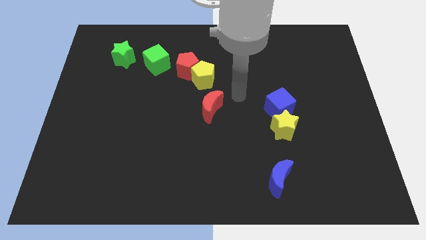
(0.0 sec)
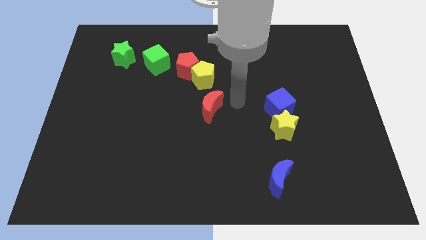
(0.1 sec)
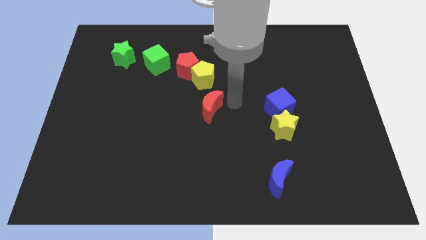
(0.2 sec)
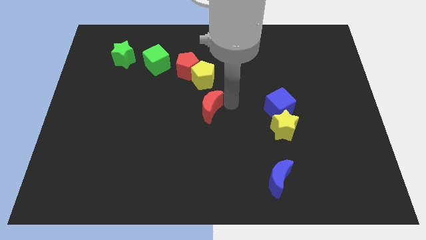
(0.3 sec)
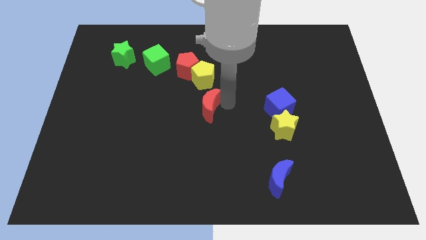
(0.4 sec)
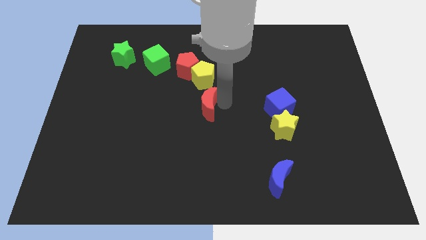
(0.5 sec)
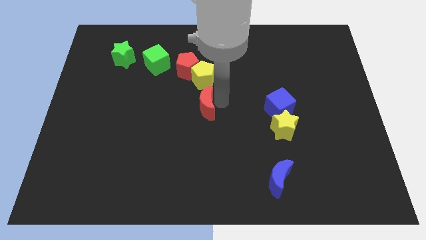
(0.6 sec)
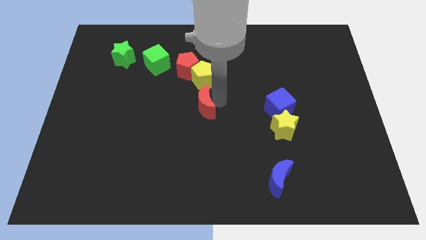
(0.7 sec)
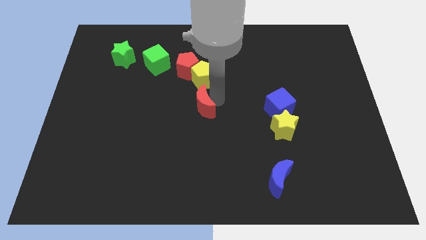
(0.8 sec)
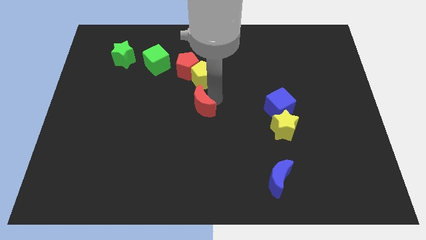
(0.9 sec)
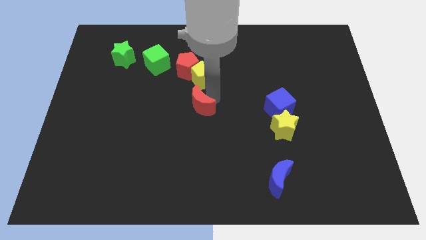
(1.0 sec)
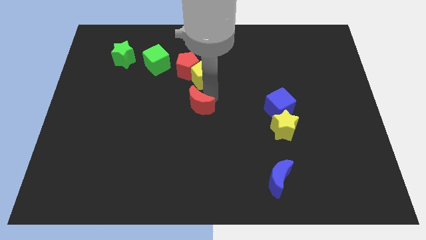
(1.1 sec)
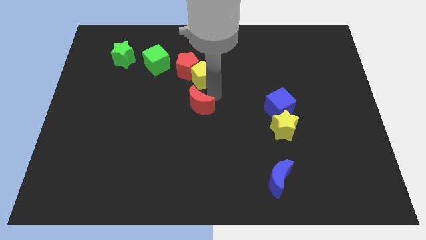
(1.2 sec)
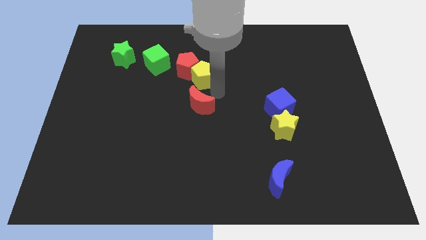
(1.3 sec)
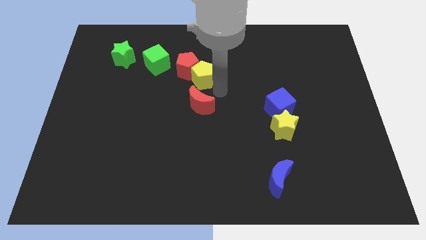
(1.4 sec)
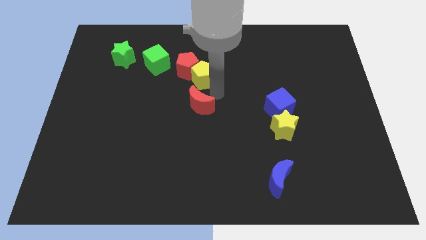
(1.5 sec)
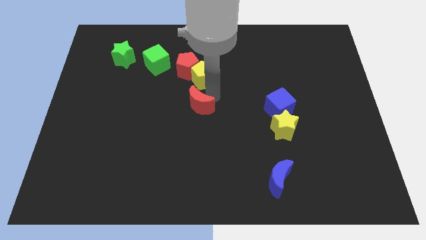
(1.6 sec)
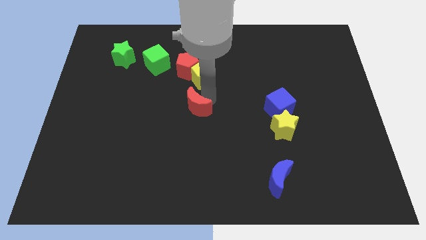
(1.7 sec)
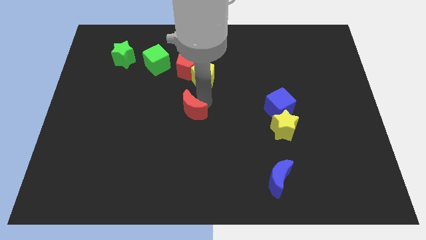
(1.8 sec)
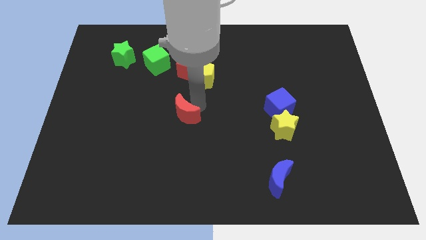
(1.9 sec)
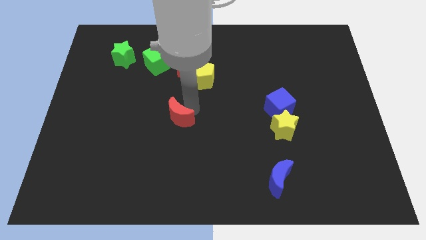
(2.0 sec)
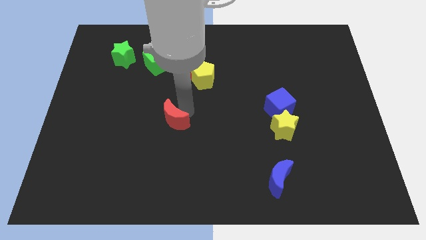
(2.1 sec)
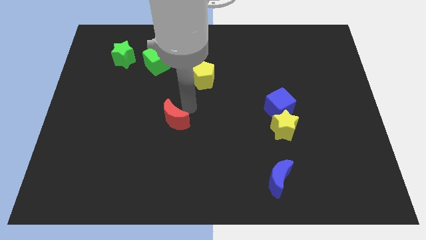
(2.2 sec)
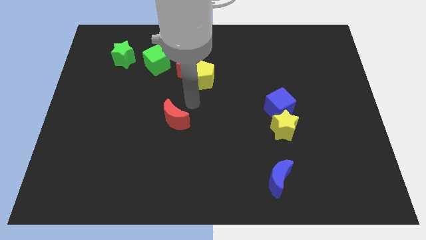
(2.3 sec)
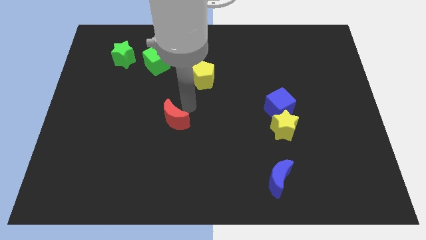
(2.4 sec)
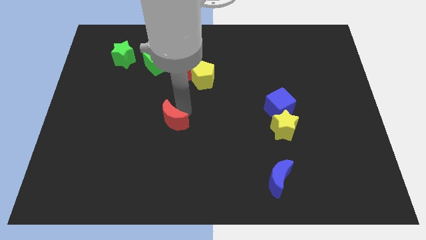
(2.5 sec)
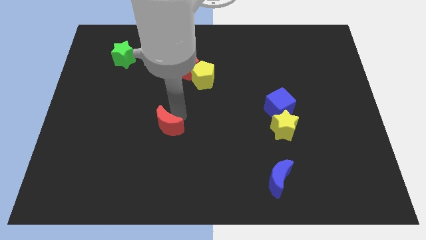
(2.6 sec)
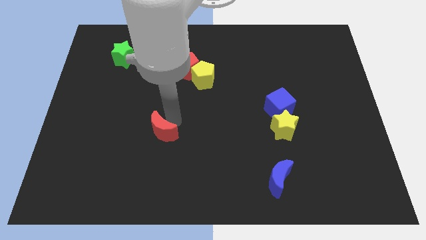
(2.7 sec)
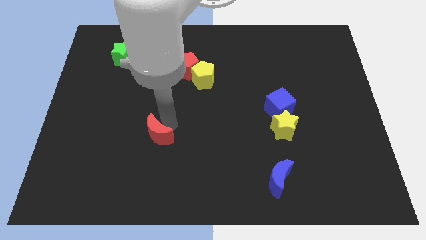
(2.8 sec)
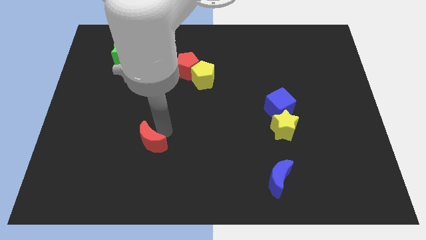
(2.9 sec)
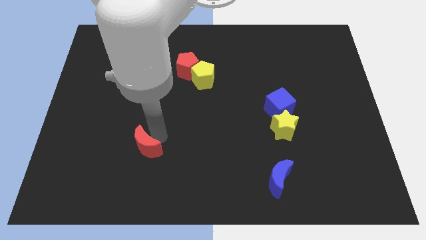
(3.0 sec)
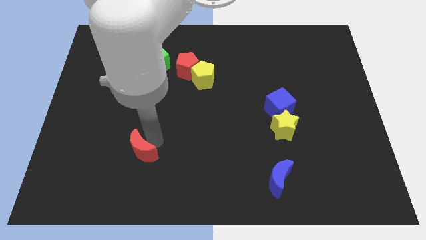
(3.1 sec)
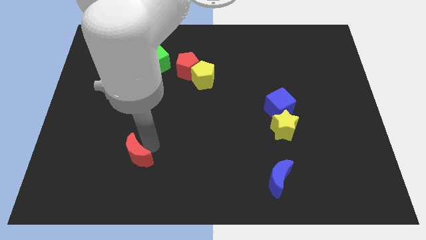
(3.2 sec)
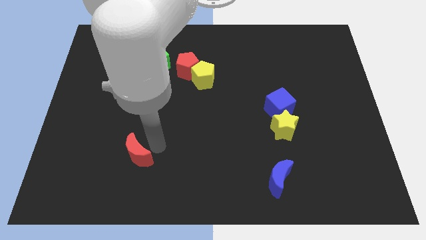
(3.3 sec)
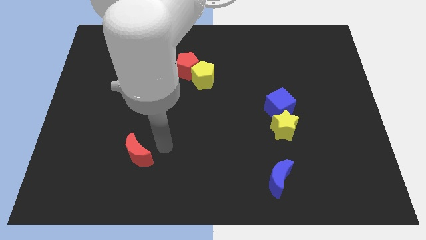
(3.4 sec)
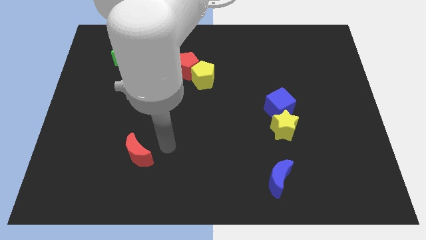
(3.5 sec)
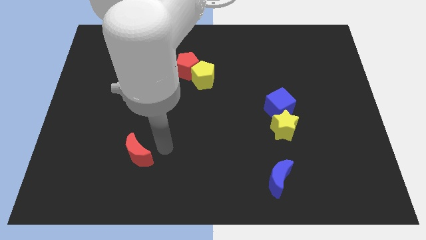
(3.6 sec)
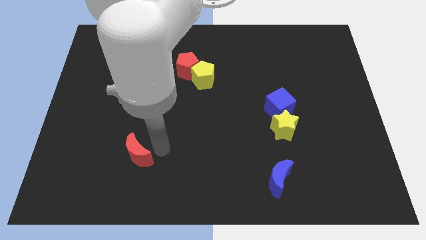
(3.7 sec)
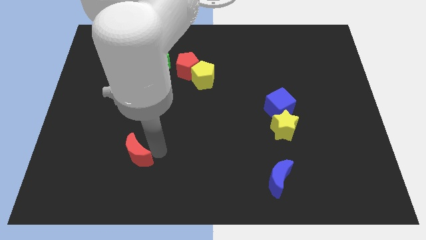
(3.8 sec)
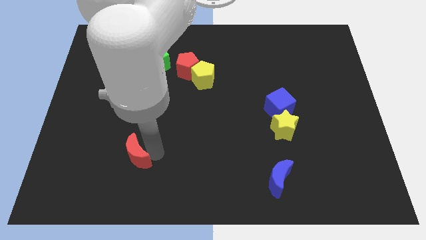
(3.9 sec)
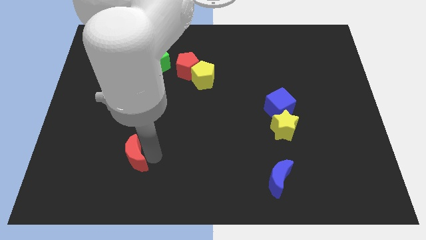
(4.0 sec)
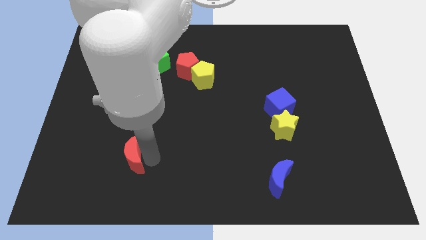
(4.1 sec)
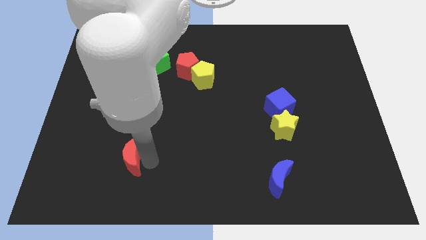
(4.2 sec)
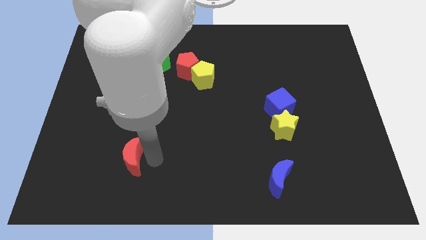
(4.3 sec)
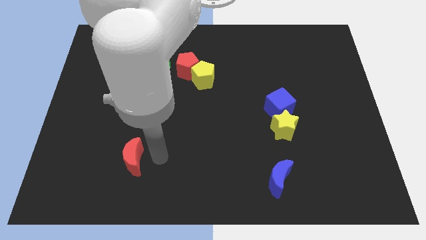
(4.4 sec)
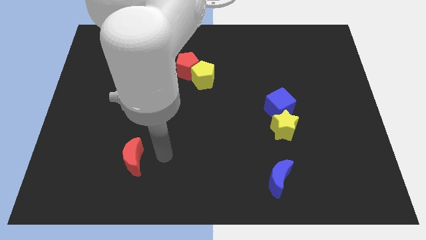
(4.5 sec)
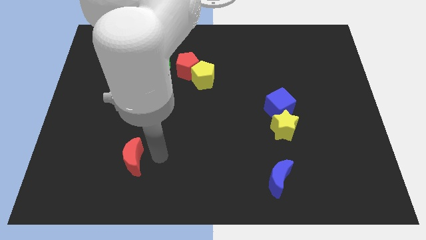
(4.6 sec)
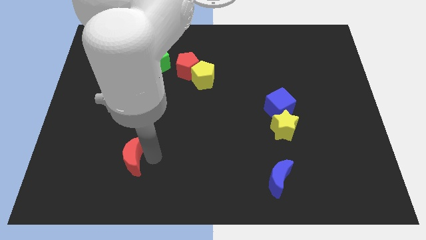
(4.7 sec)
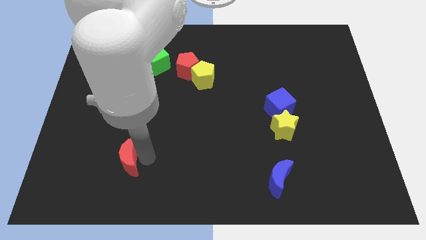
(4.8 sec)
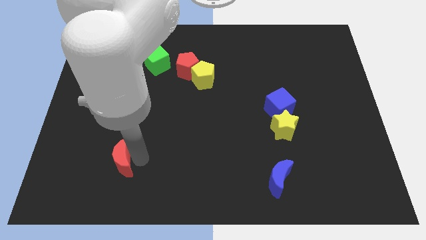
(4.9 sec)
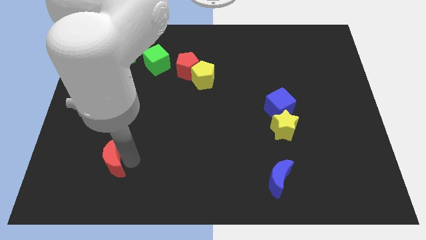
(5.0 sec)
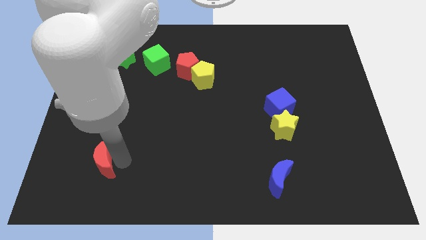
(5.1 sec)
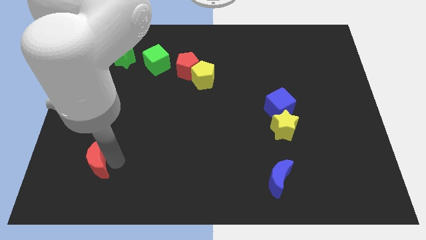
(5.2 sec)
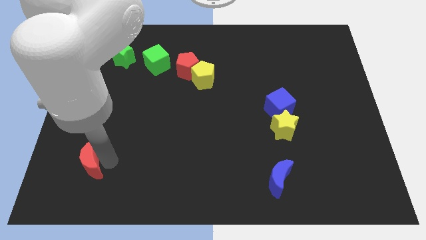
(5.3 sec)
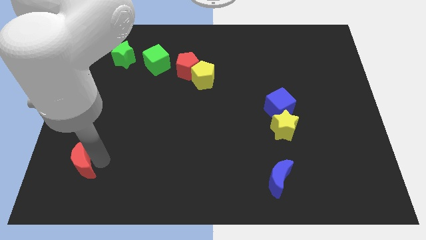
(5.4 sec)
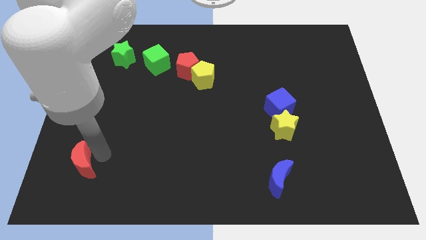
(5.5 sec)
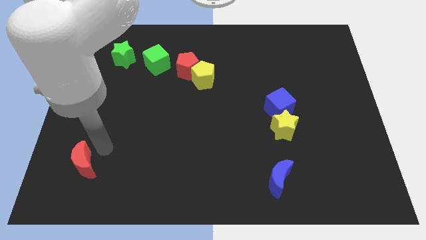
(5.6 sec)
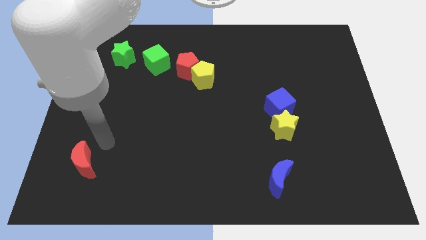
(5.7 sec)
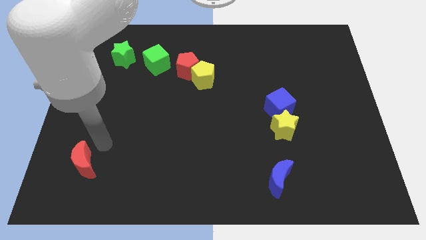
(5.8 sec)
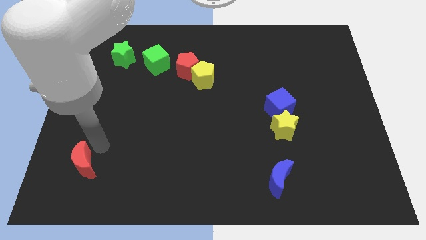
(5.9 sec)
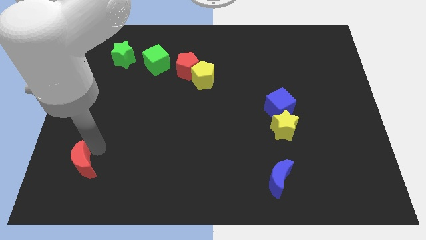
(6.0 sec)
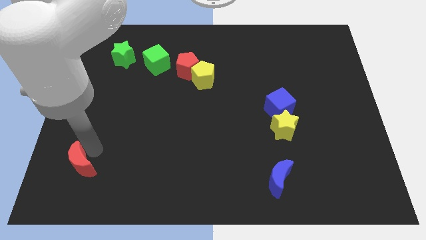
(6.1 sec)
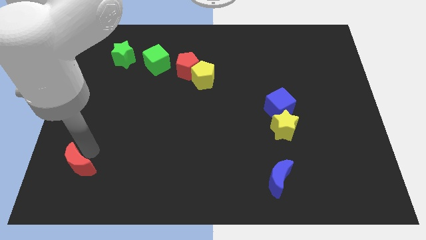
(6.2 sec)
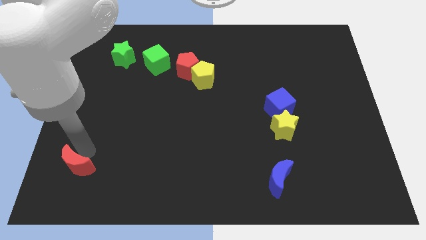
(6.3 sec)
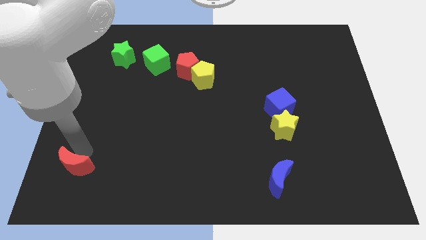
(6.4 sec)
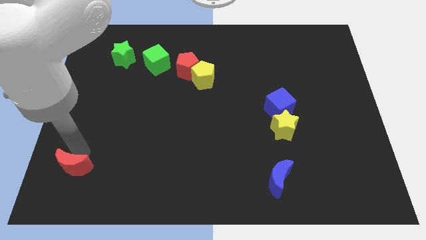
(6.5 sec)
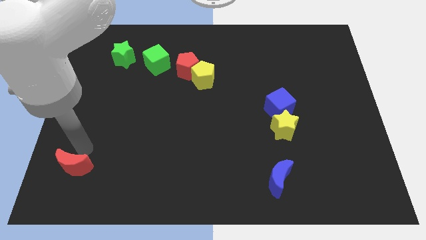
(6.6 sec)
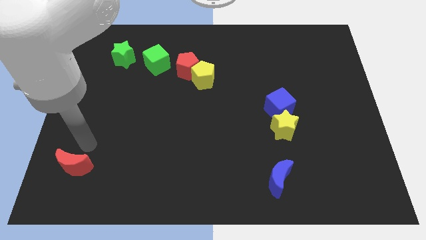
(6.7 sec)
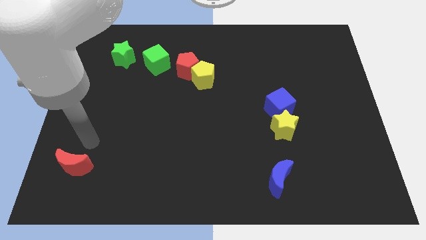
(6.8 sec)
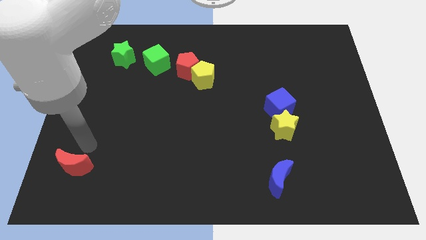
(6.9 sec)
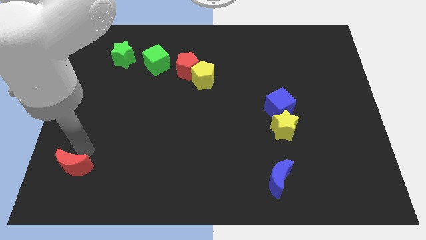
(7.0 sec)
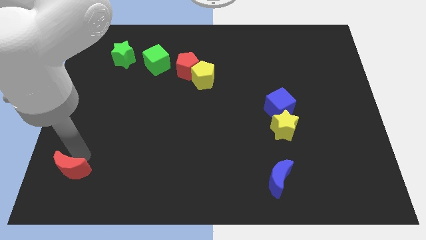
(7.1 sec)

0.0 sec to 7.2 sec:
move the red moon to the bottom left corner
